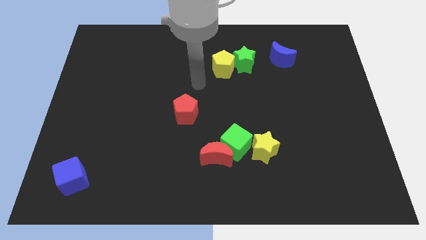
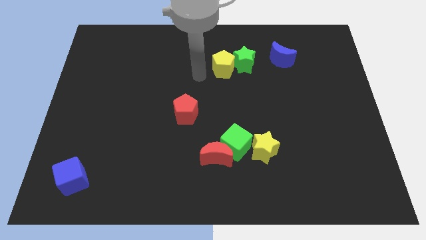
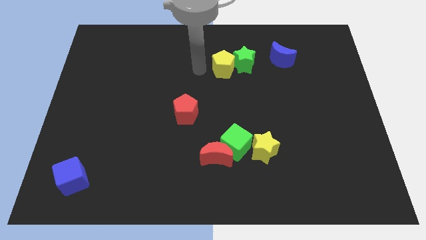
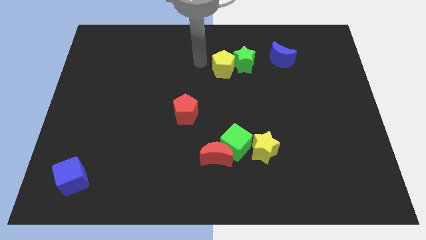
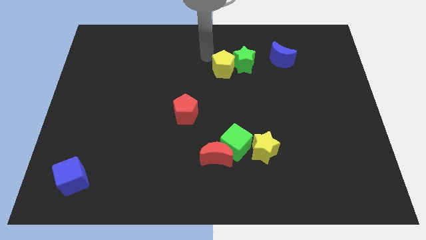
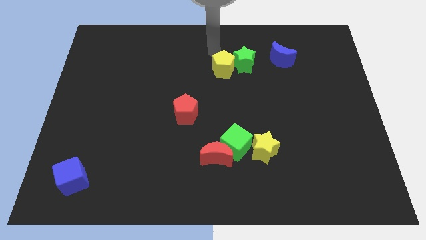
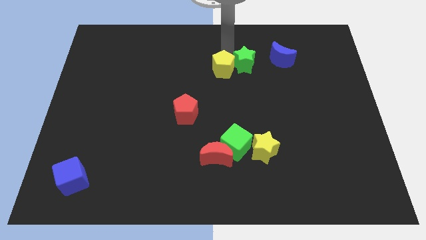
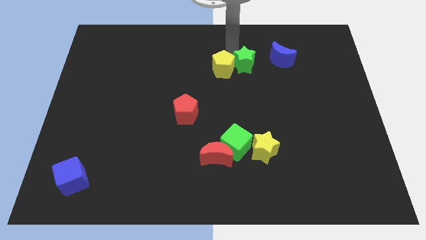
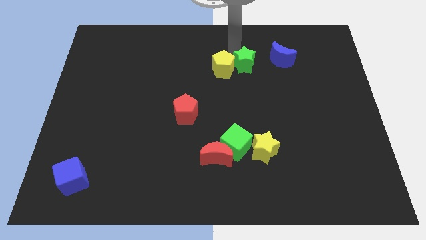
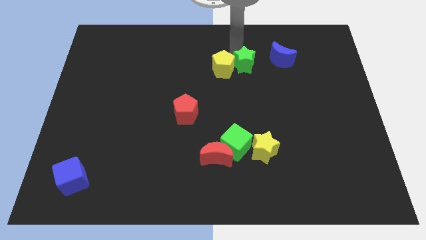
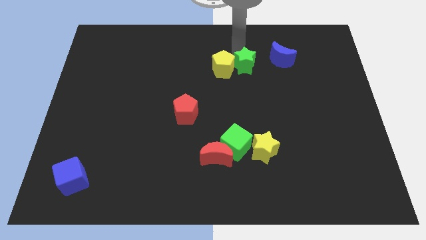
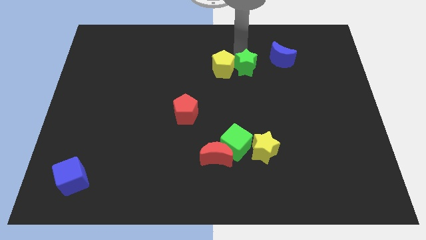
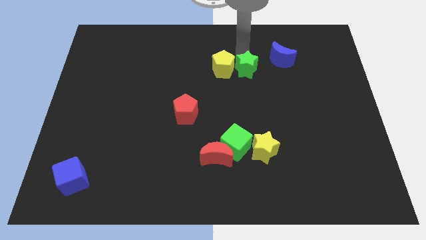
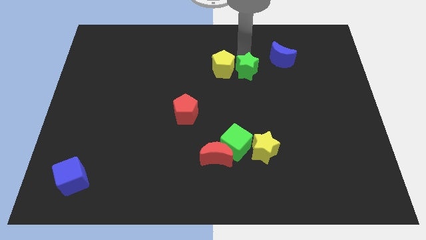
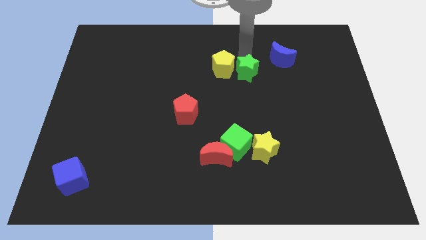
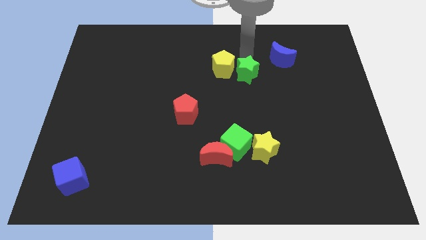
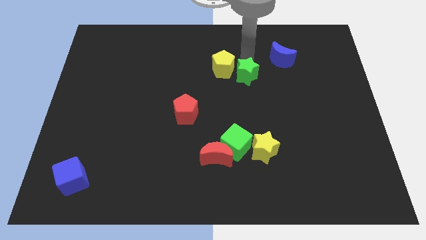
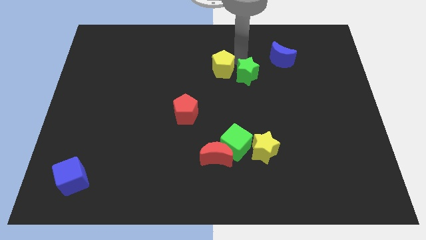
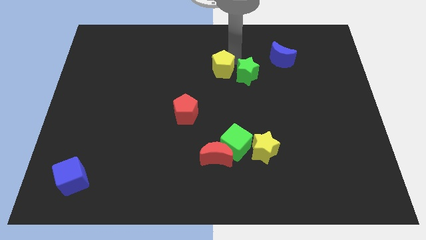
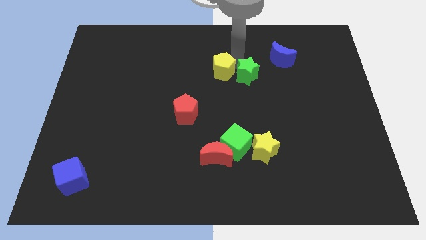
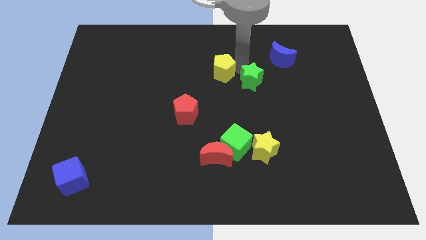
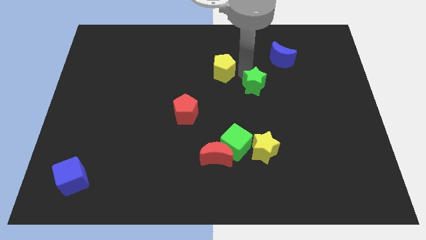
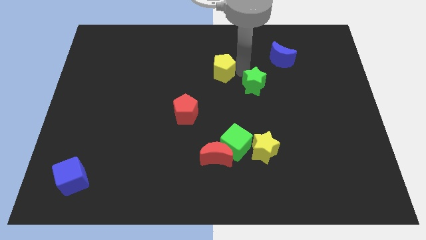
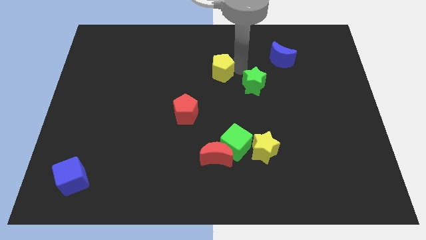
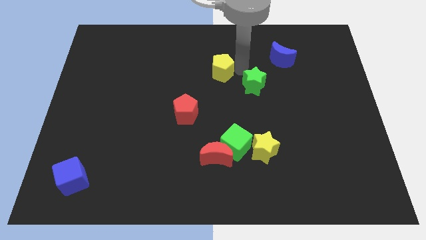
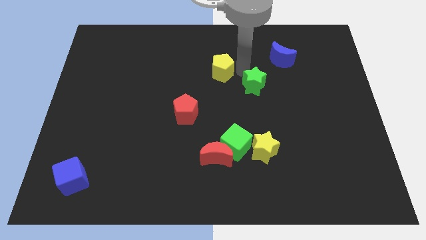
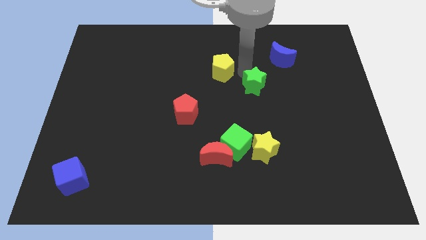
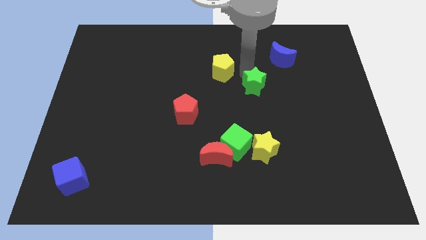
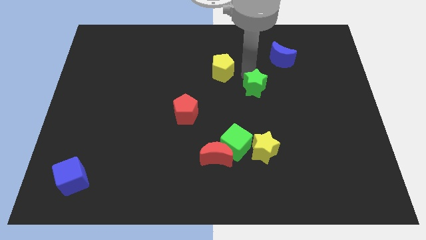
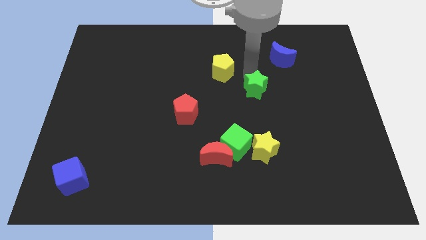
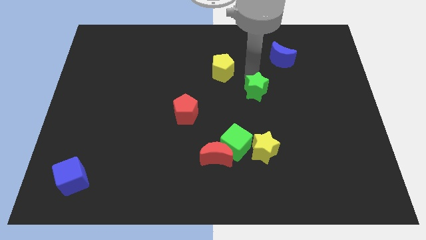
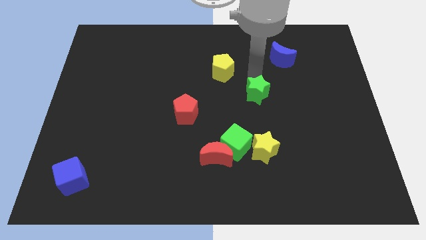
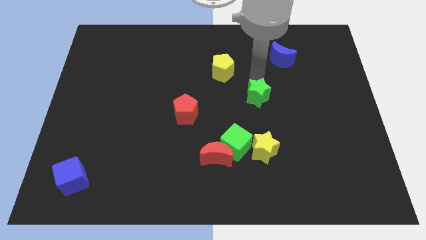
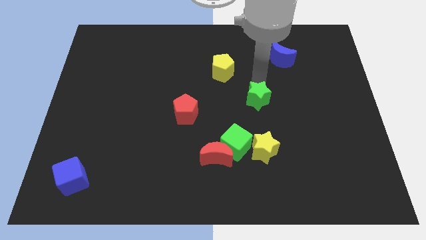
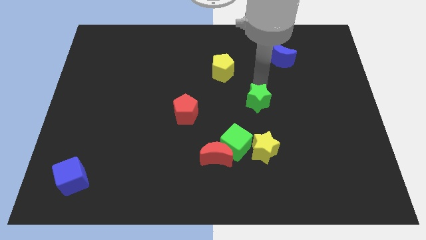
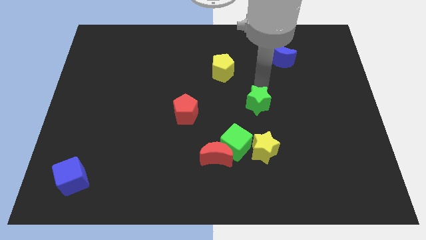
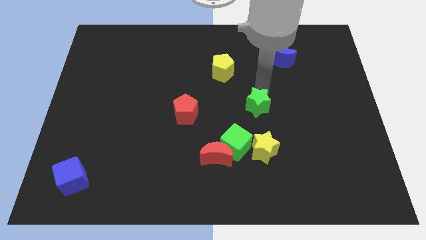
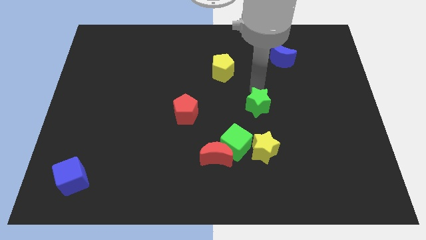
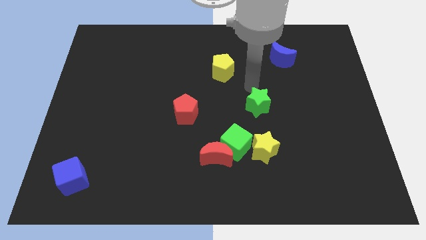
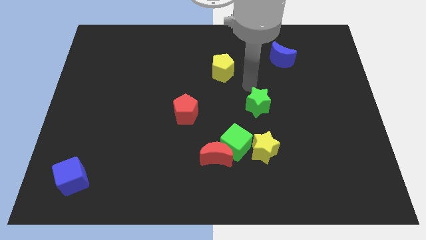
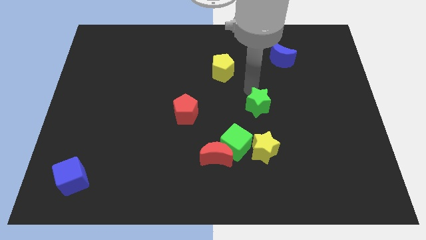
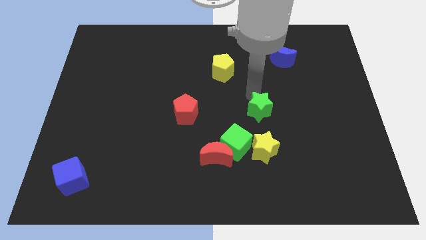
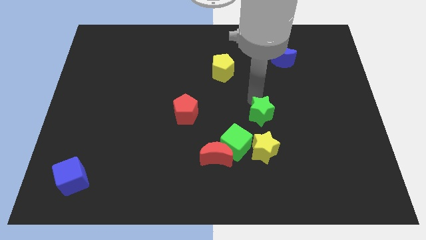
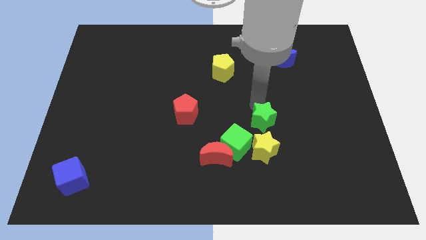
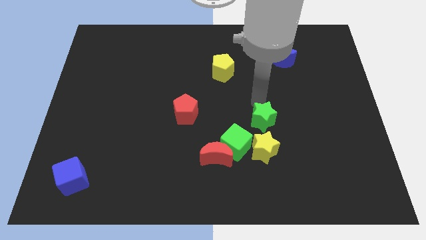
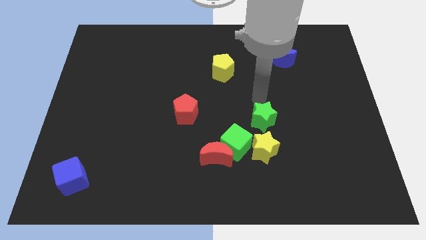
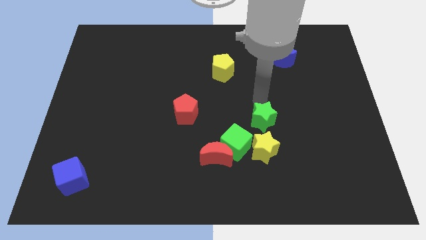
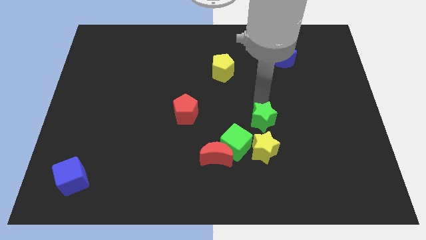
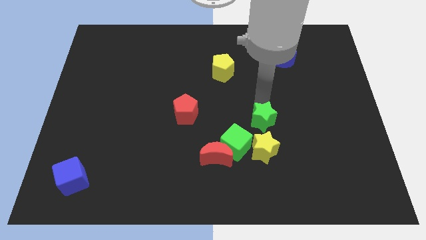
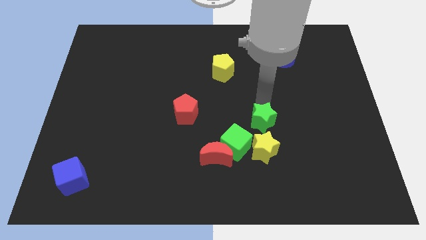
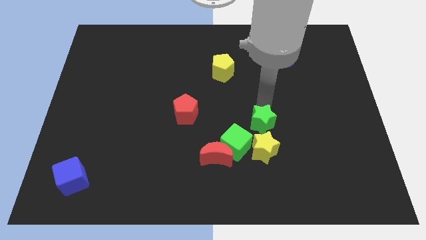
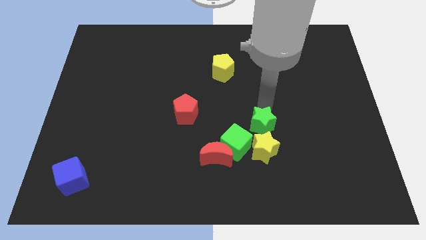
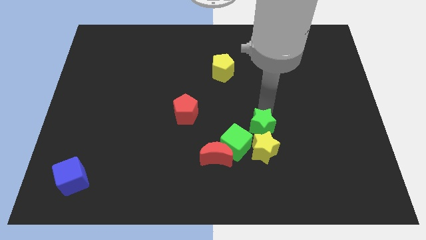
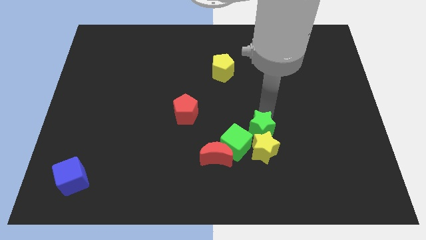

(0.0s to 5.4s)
put the green star next to the yellow star

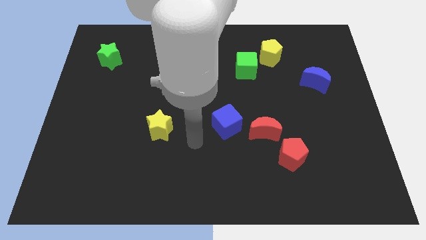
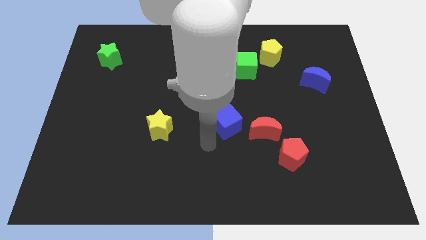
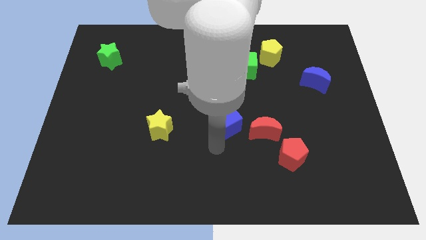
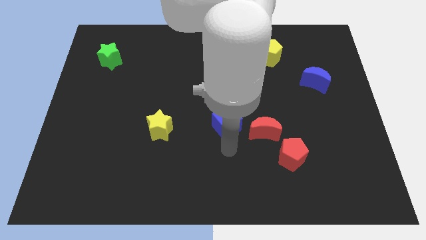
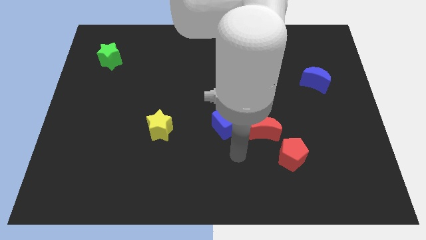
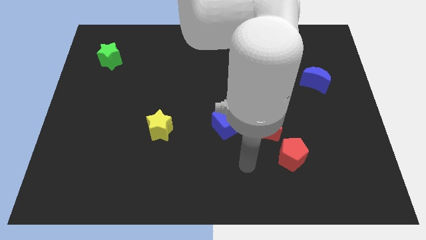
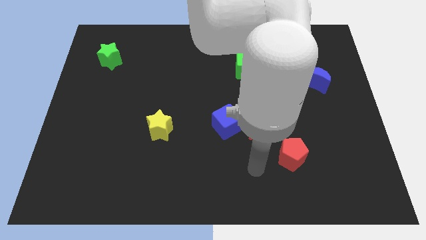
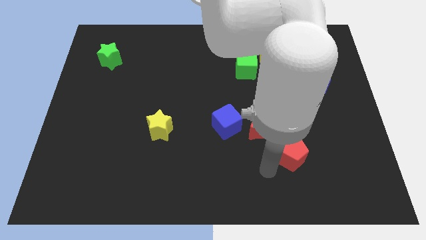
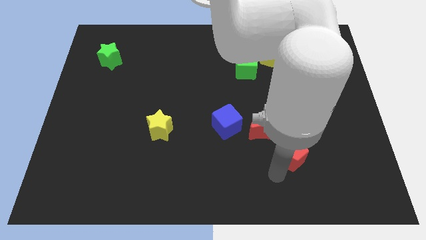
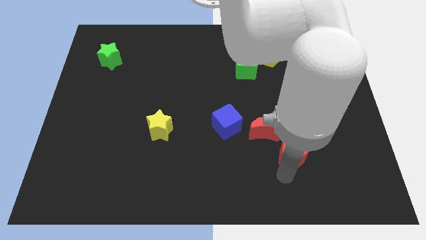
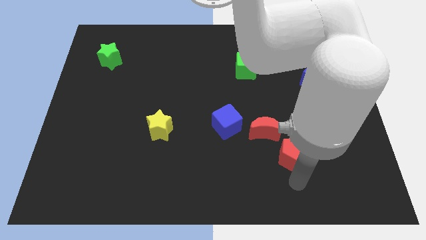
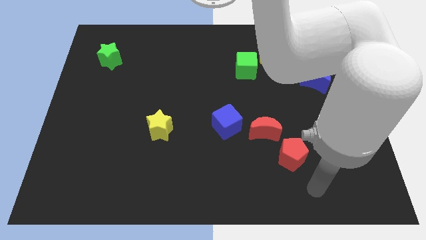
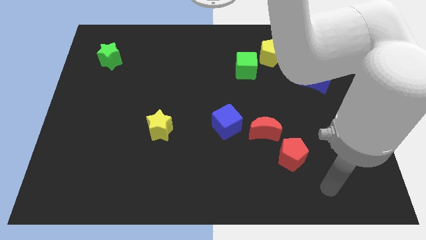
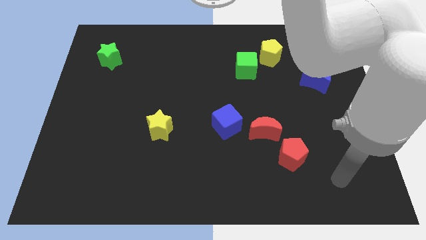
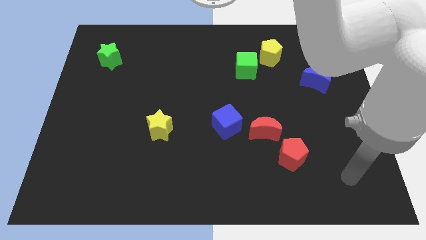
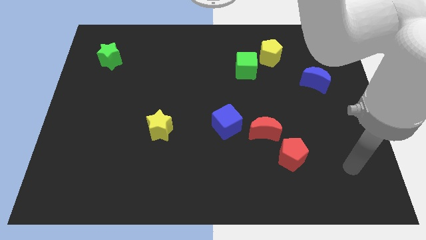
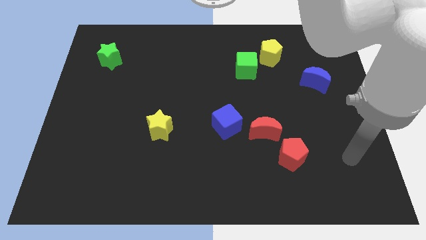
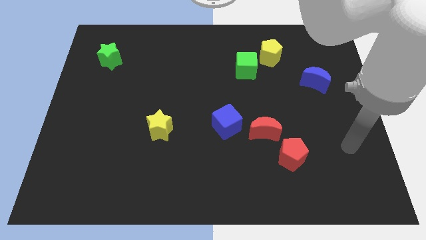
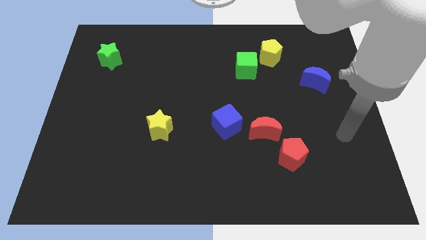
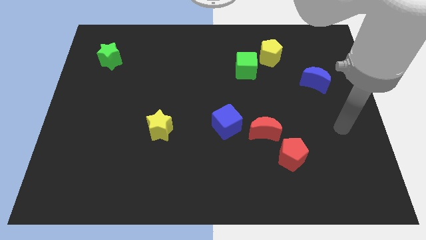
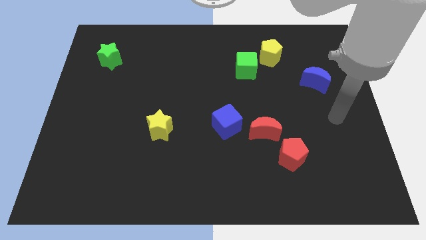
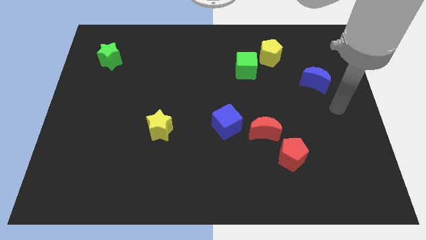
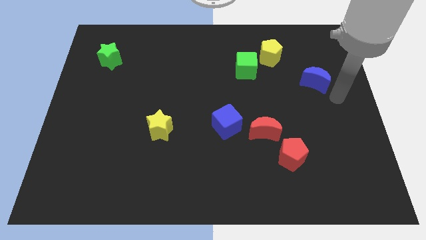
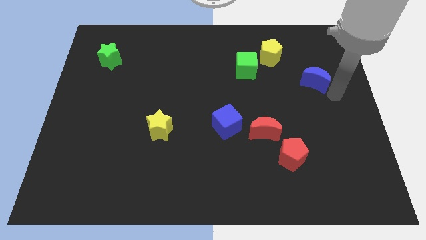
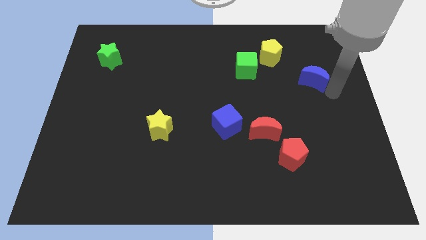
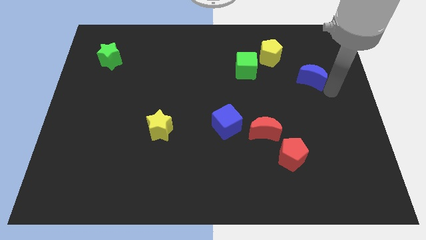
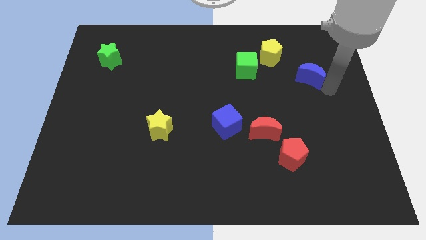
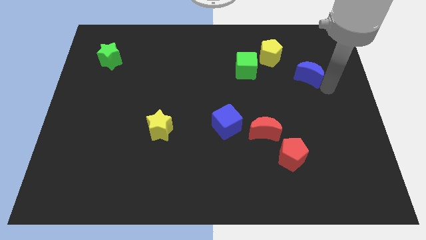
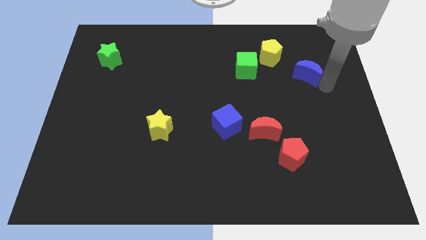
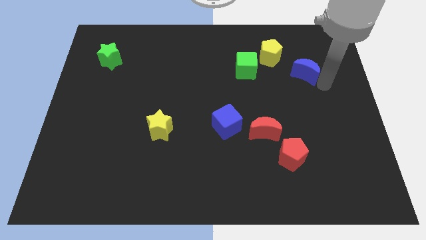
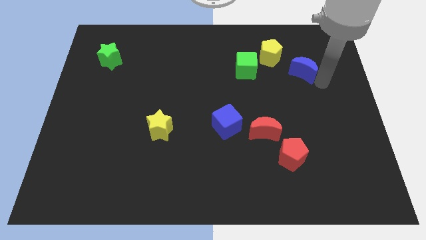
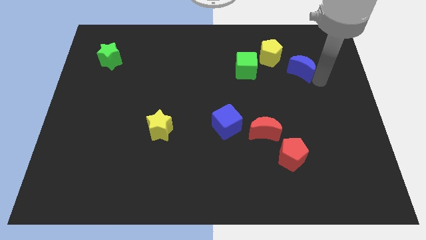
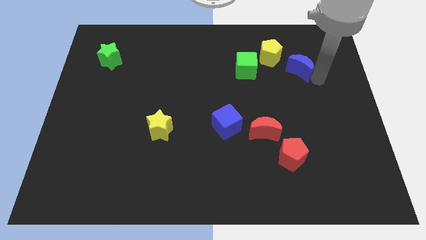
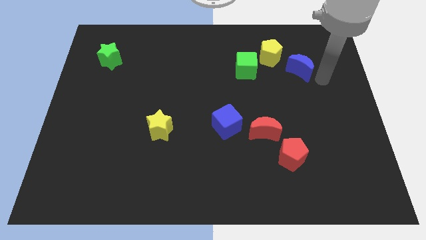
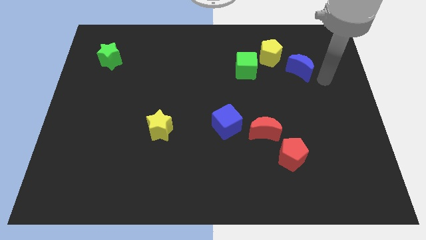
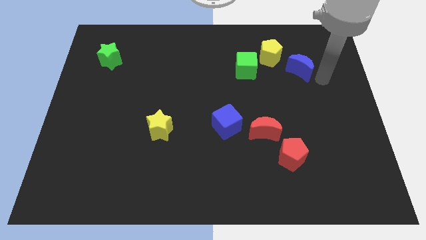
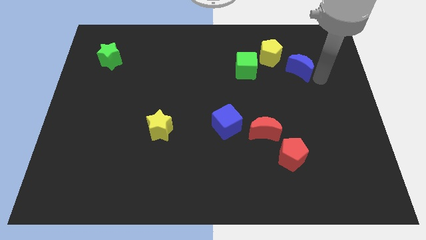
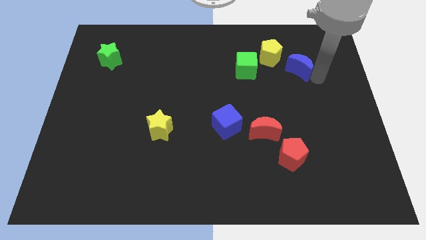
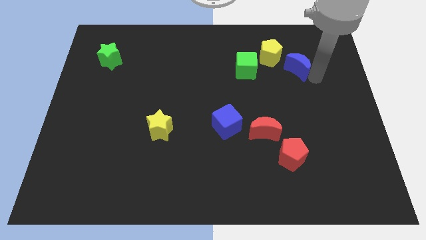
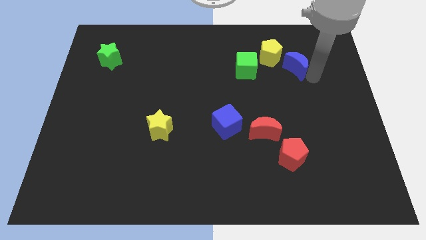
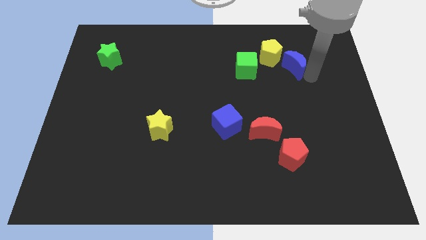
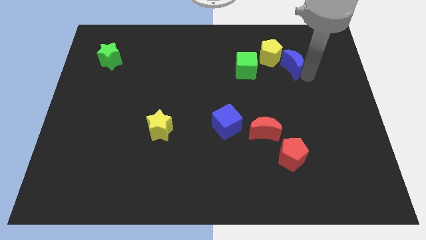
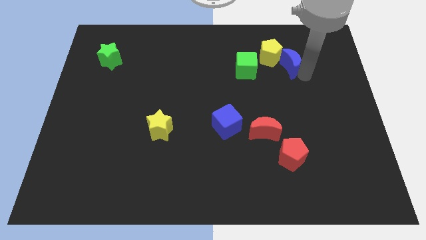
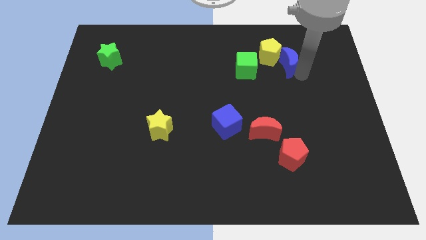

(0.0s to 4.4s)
put the blue moon close to the yellow pentagon
